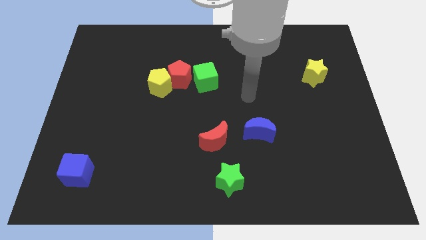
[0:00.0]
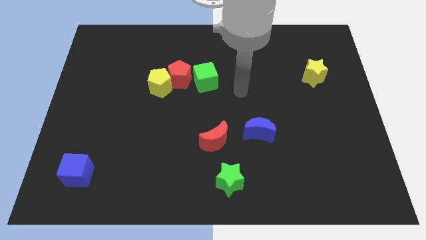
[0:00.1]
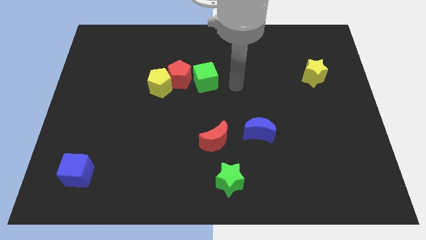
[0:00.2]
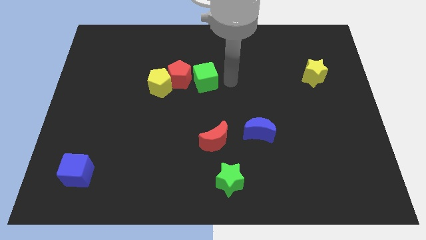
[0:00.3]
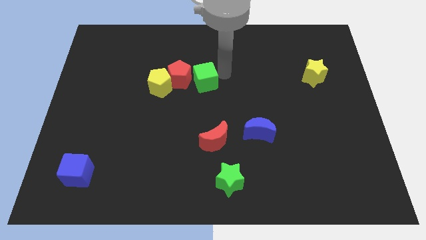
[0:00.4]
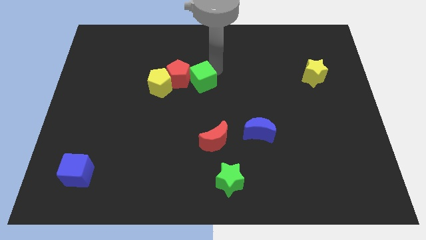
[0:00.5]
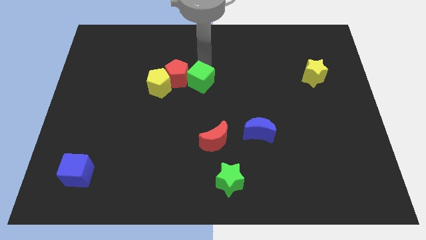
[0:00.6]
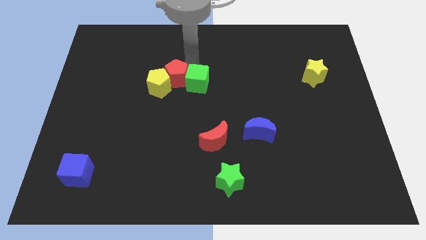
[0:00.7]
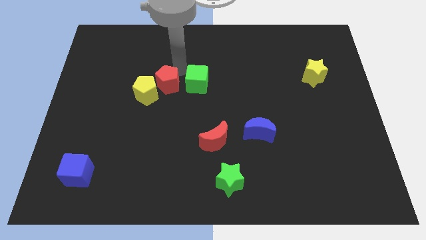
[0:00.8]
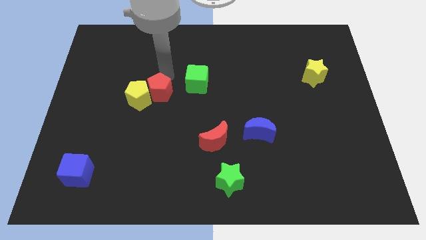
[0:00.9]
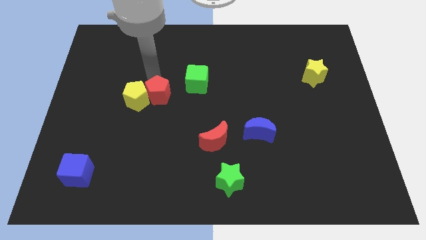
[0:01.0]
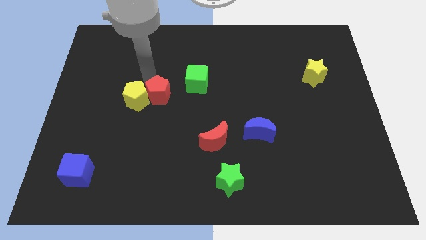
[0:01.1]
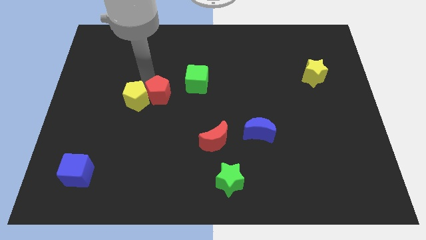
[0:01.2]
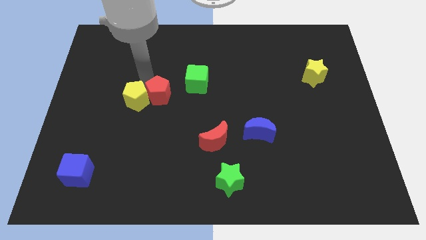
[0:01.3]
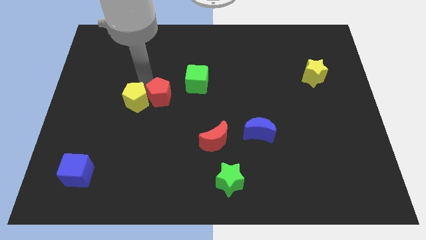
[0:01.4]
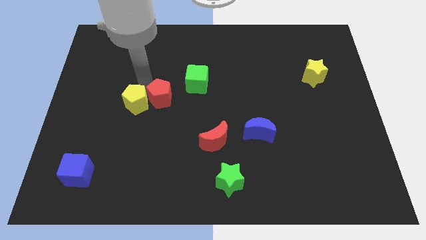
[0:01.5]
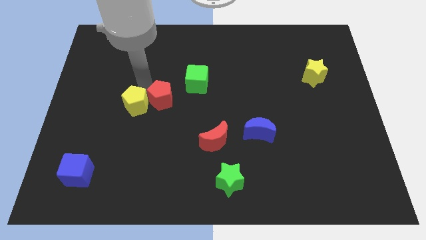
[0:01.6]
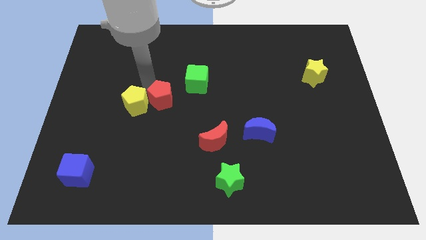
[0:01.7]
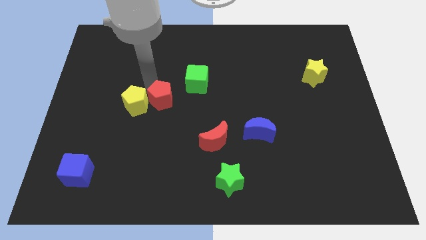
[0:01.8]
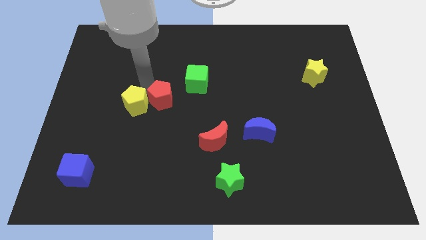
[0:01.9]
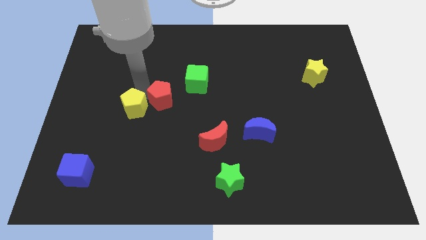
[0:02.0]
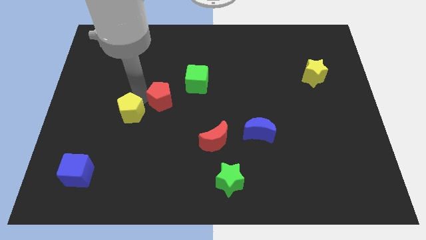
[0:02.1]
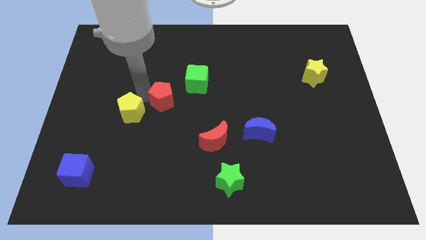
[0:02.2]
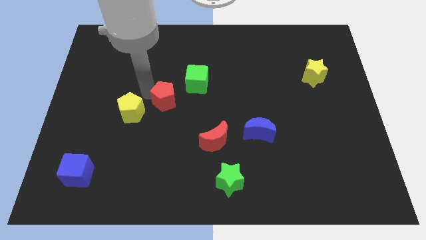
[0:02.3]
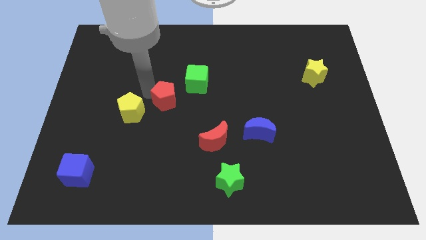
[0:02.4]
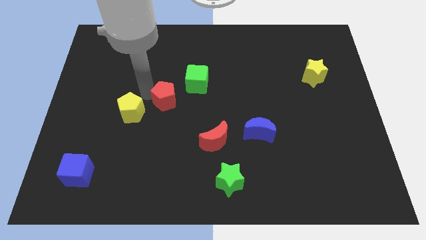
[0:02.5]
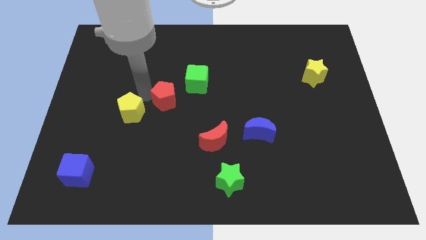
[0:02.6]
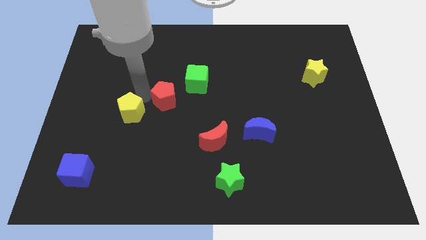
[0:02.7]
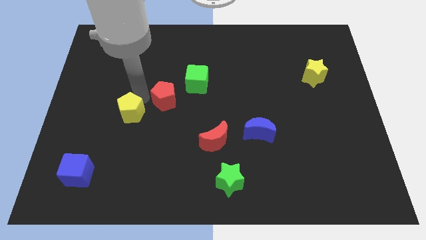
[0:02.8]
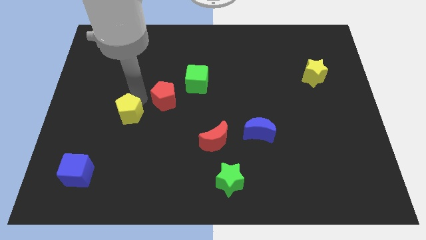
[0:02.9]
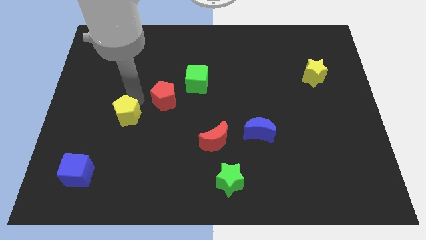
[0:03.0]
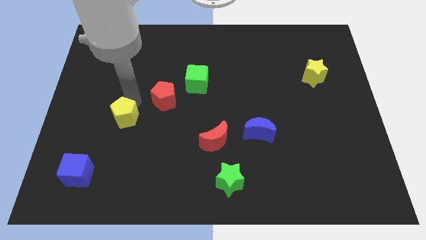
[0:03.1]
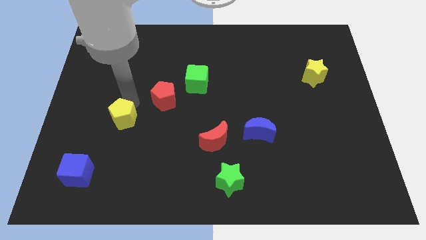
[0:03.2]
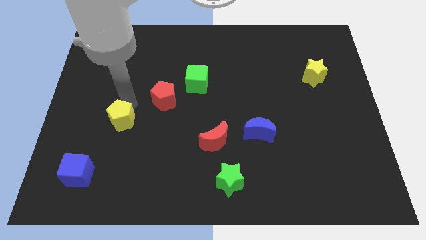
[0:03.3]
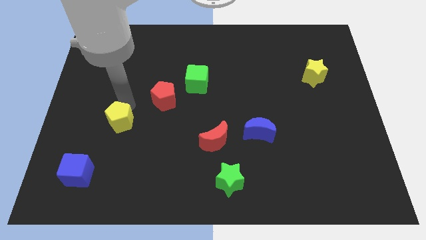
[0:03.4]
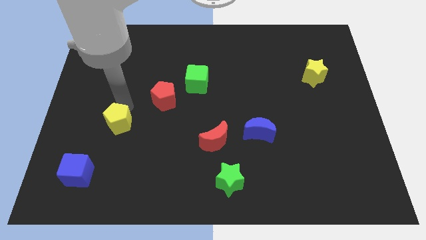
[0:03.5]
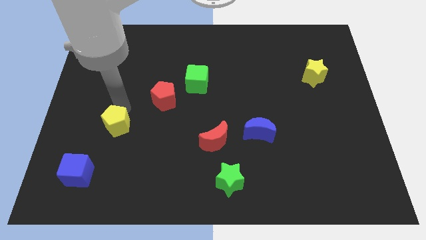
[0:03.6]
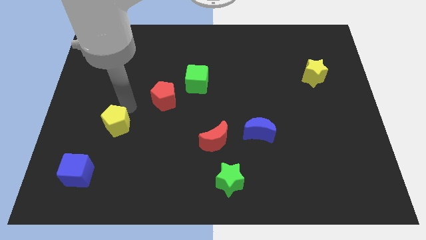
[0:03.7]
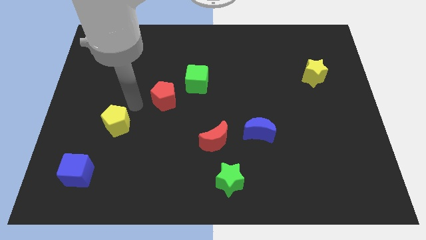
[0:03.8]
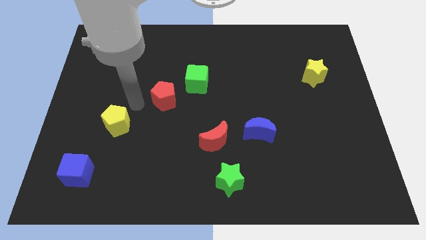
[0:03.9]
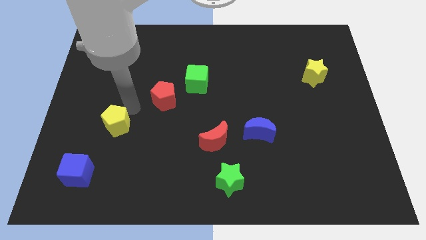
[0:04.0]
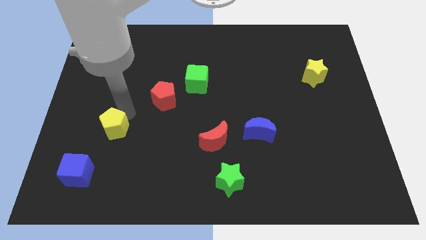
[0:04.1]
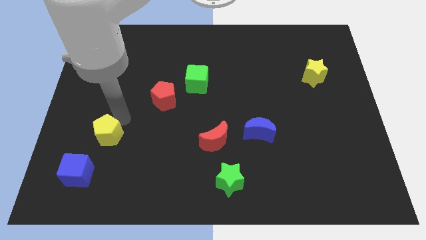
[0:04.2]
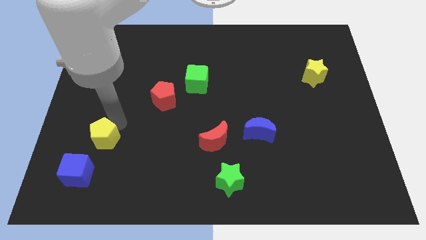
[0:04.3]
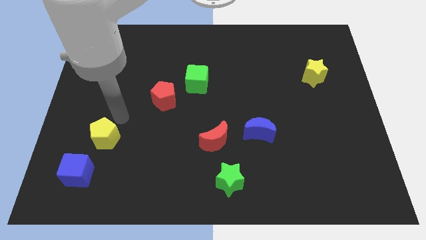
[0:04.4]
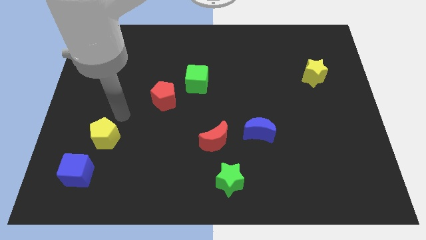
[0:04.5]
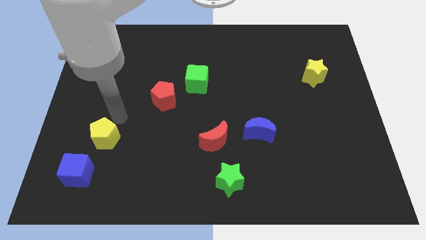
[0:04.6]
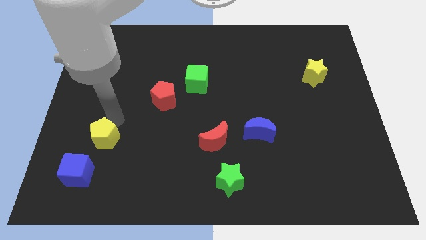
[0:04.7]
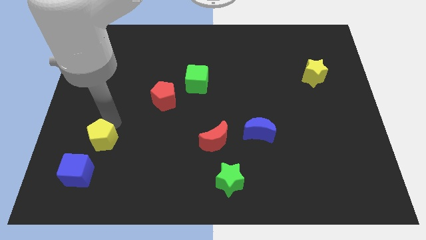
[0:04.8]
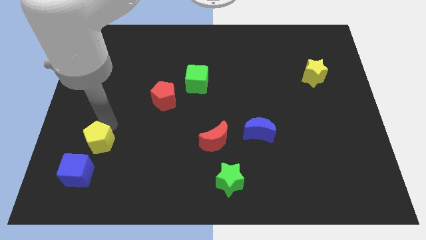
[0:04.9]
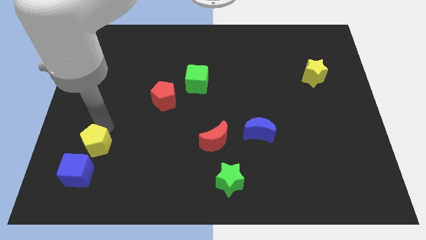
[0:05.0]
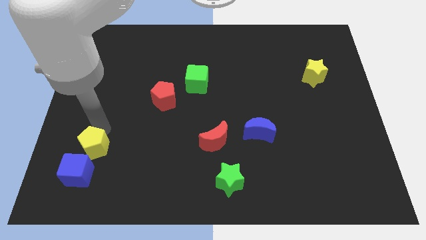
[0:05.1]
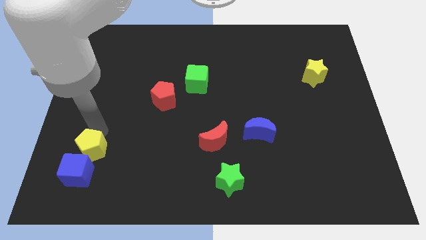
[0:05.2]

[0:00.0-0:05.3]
push the yellow pentagon next to the blue cube

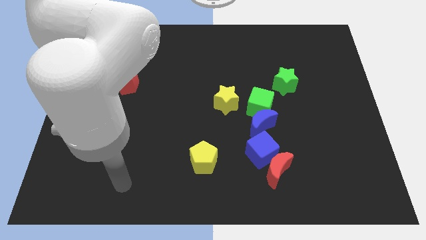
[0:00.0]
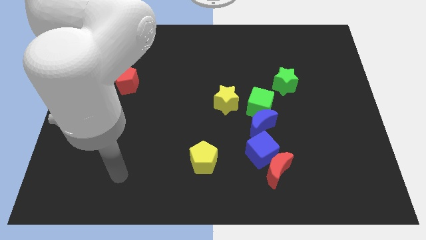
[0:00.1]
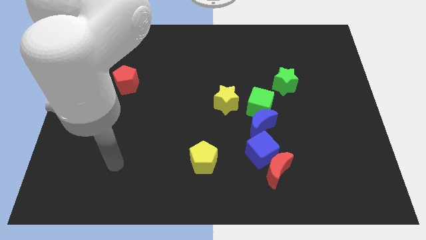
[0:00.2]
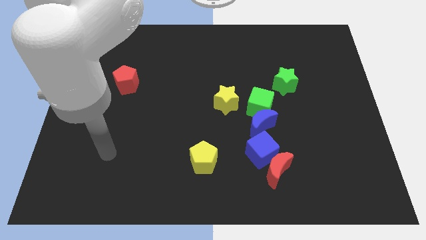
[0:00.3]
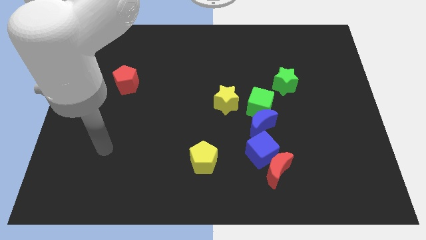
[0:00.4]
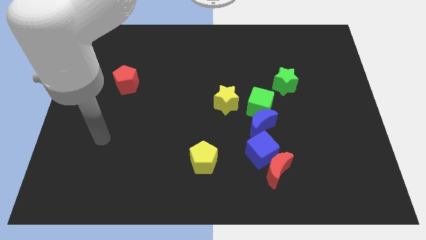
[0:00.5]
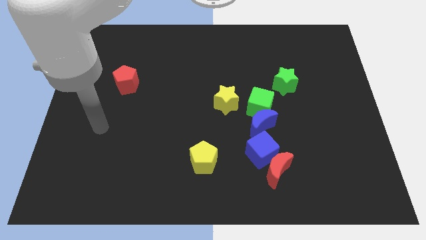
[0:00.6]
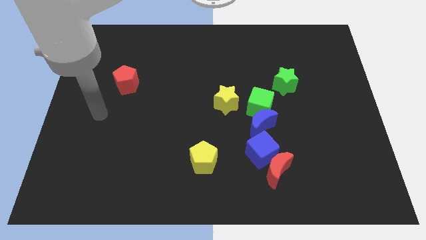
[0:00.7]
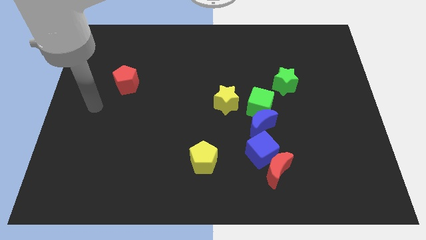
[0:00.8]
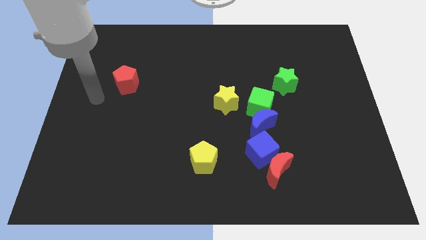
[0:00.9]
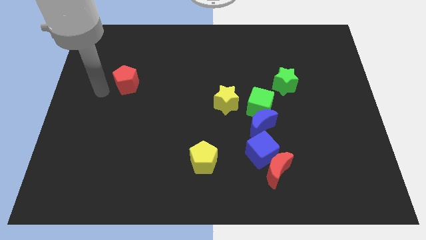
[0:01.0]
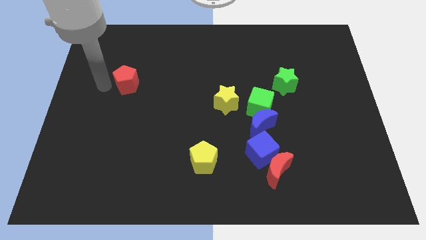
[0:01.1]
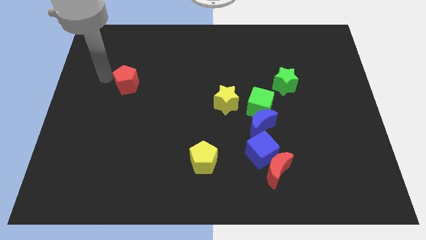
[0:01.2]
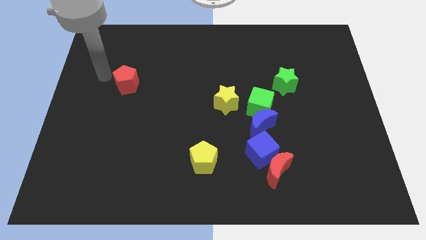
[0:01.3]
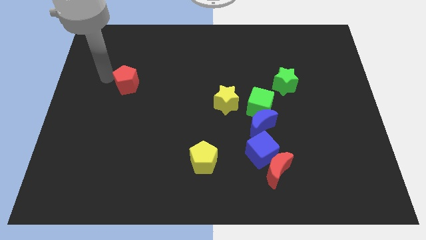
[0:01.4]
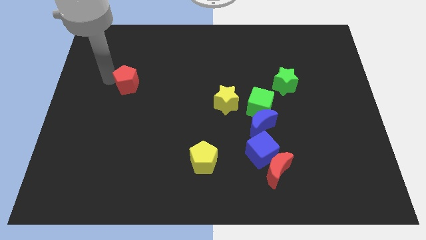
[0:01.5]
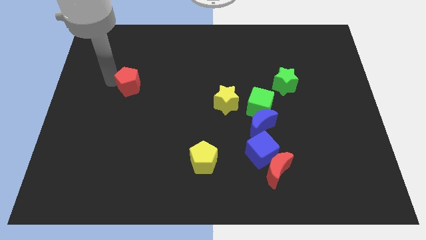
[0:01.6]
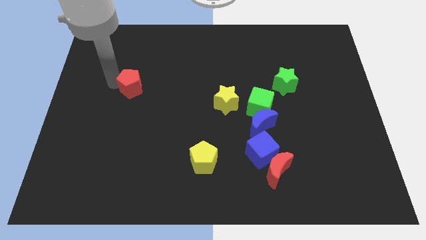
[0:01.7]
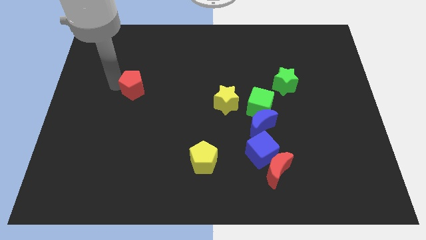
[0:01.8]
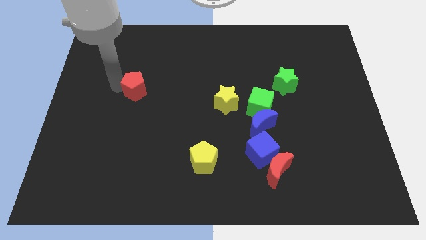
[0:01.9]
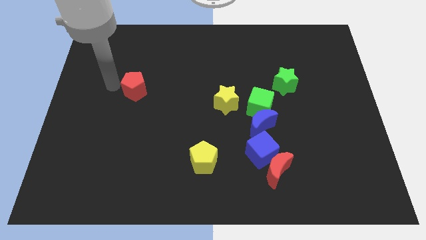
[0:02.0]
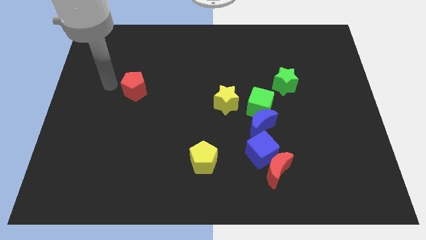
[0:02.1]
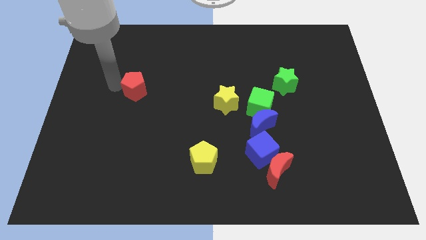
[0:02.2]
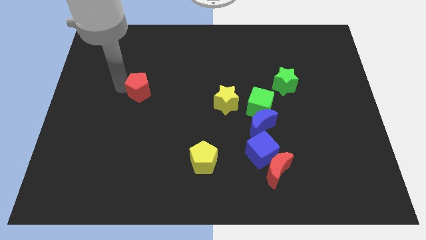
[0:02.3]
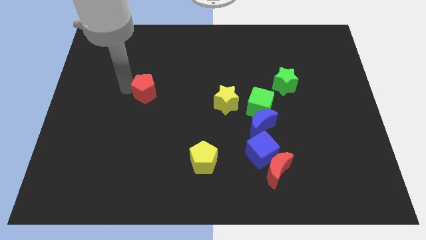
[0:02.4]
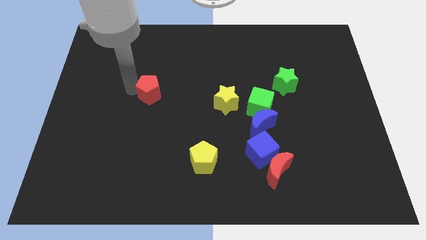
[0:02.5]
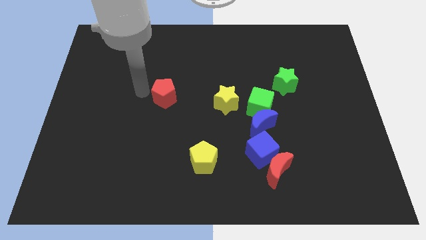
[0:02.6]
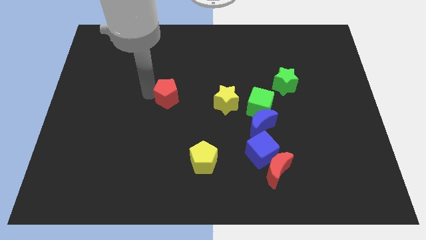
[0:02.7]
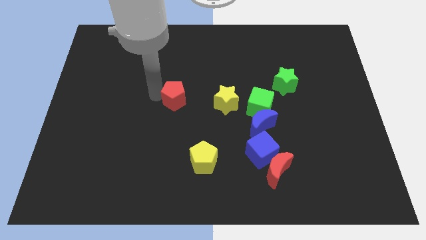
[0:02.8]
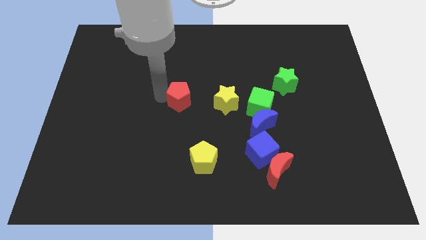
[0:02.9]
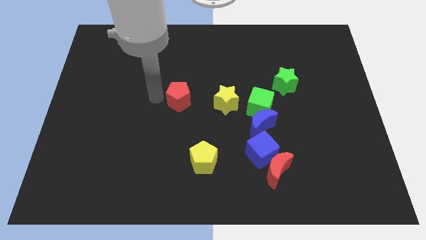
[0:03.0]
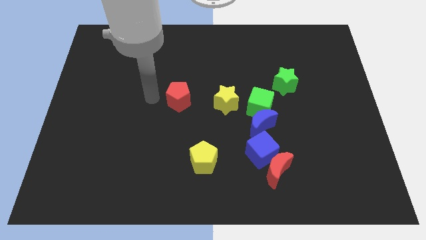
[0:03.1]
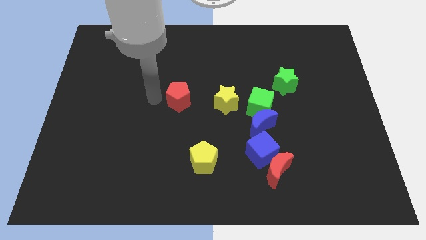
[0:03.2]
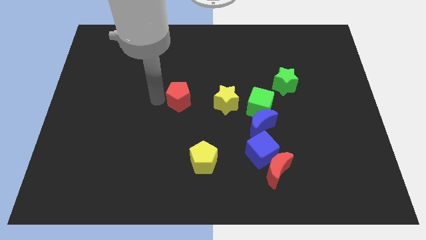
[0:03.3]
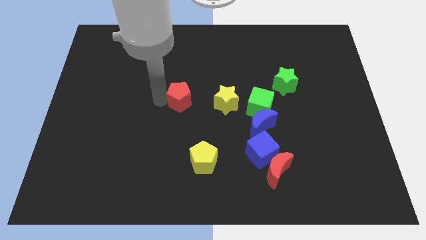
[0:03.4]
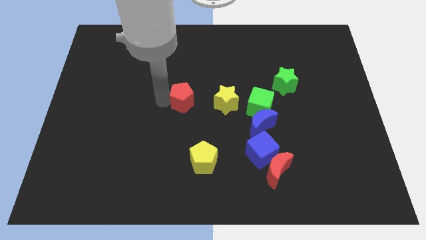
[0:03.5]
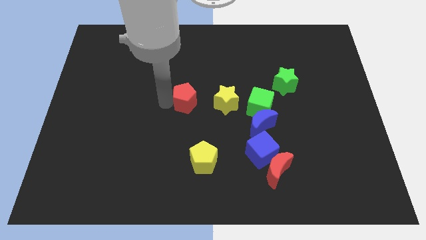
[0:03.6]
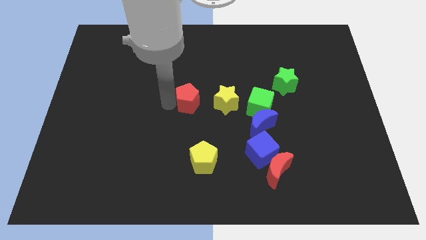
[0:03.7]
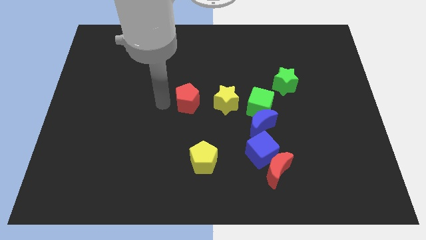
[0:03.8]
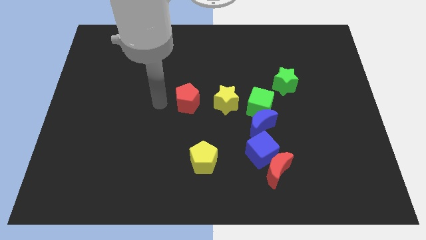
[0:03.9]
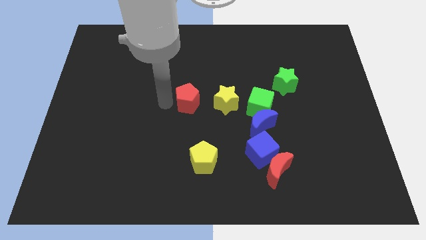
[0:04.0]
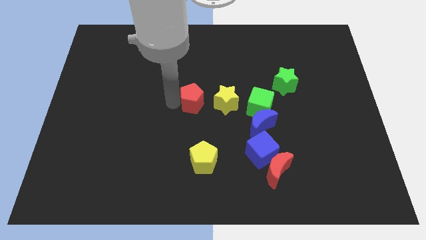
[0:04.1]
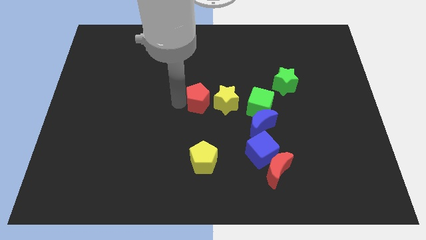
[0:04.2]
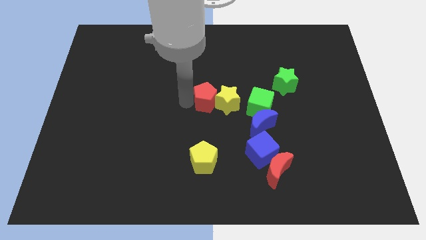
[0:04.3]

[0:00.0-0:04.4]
slide the red pentagon to the yellow star
